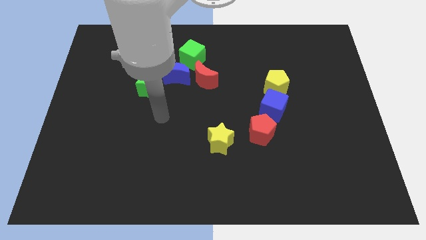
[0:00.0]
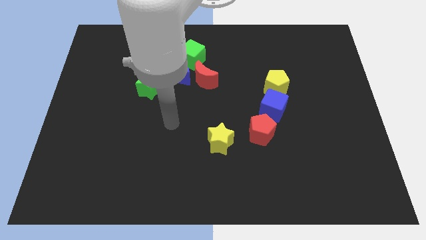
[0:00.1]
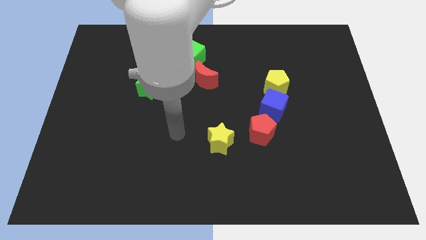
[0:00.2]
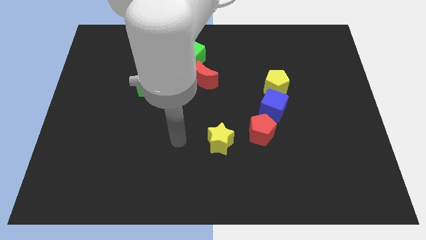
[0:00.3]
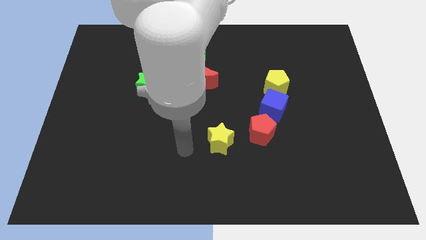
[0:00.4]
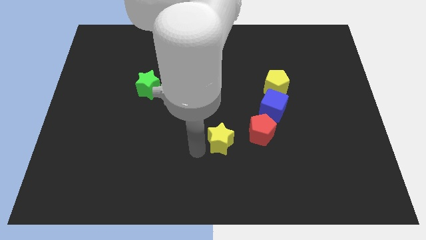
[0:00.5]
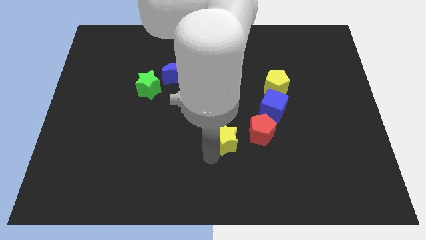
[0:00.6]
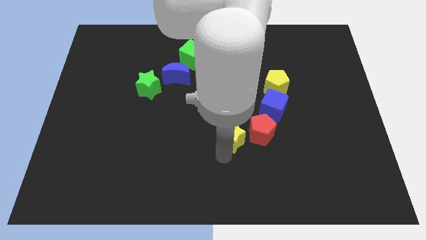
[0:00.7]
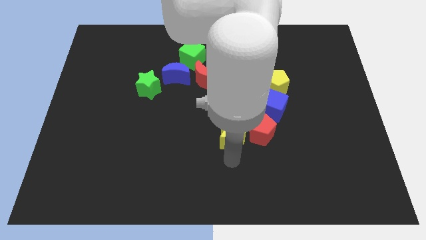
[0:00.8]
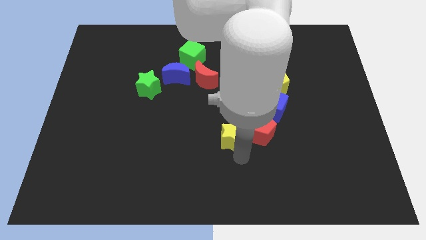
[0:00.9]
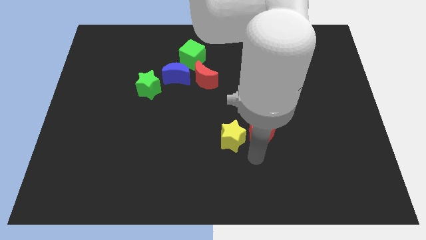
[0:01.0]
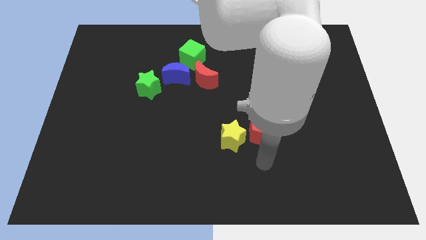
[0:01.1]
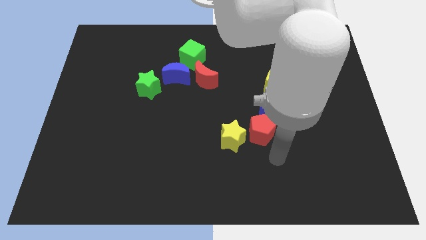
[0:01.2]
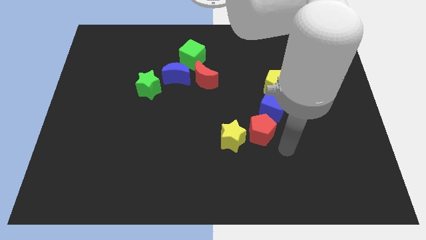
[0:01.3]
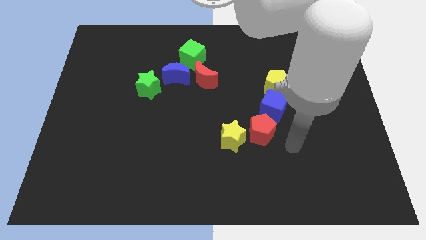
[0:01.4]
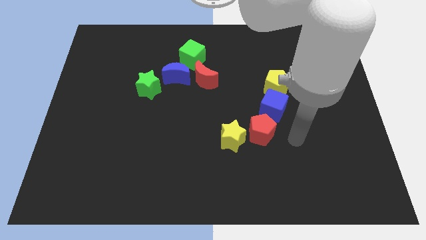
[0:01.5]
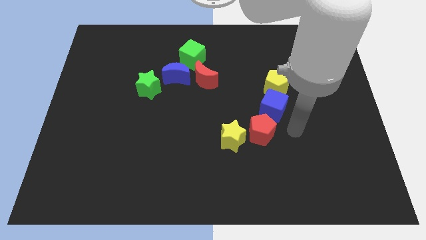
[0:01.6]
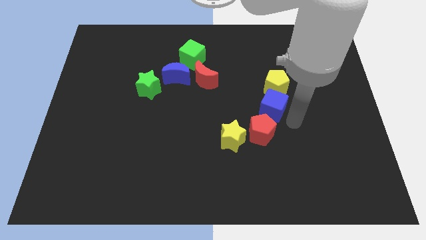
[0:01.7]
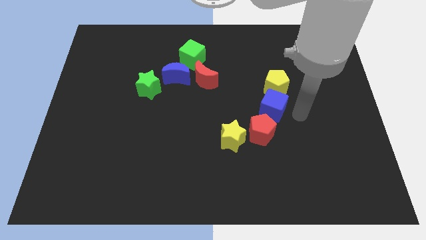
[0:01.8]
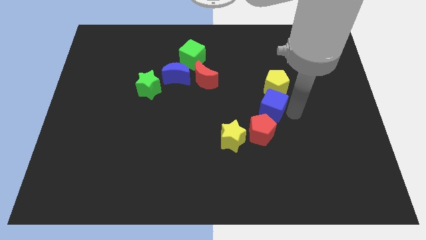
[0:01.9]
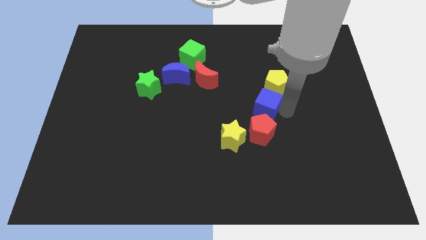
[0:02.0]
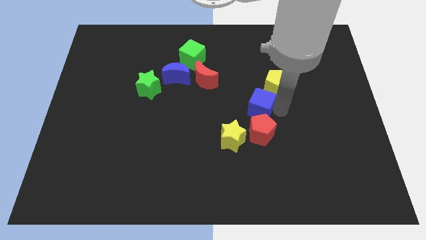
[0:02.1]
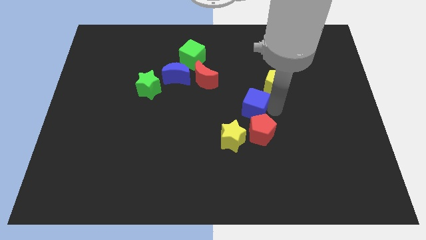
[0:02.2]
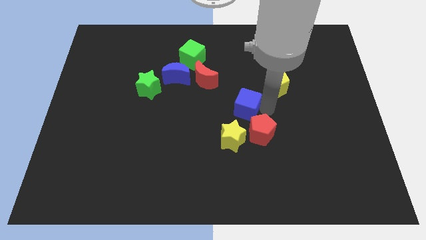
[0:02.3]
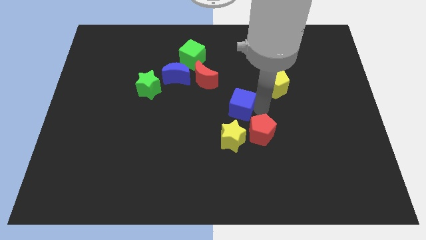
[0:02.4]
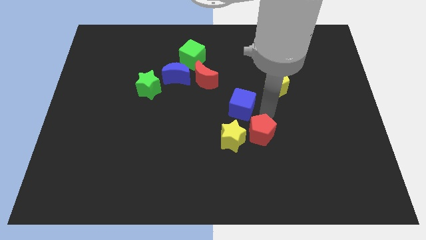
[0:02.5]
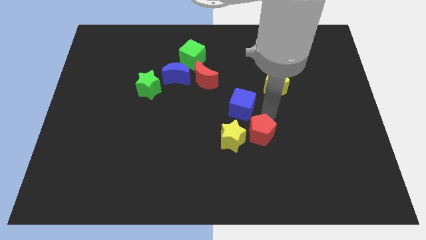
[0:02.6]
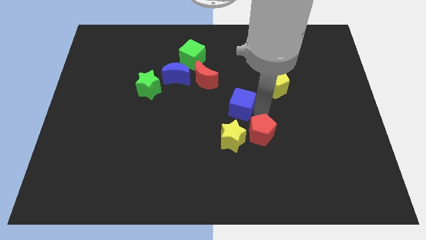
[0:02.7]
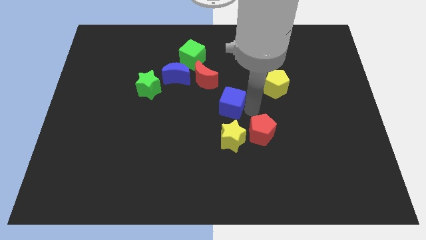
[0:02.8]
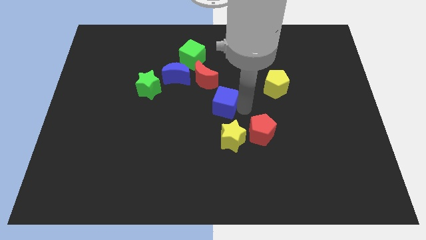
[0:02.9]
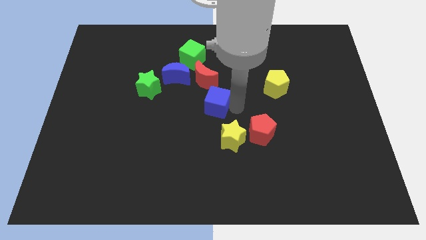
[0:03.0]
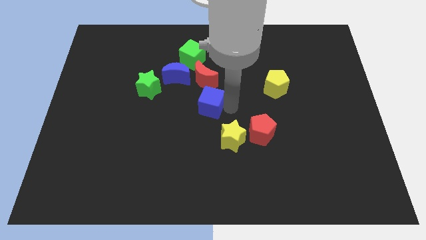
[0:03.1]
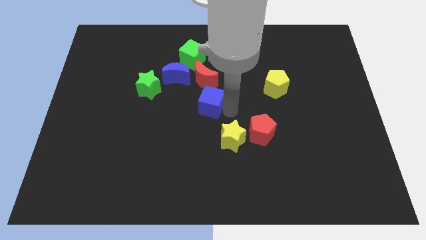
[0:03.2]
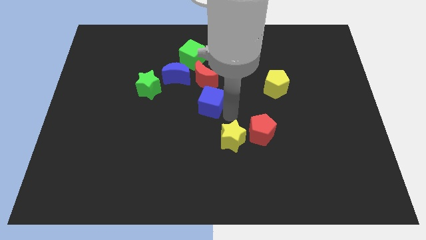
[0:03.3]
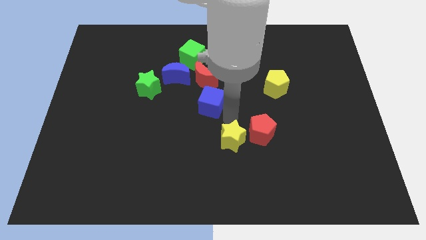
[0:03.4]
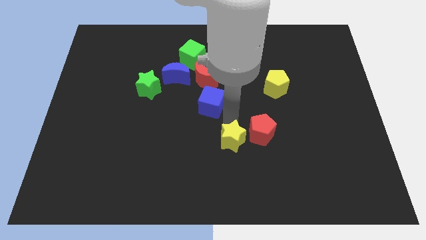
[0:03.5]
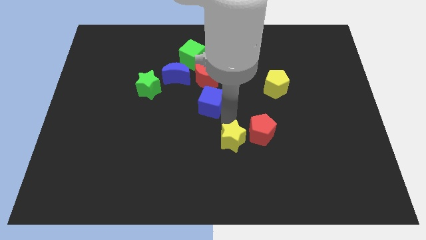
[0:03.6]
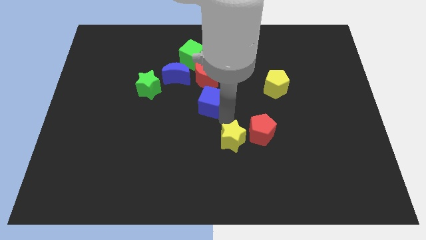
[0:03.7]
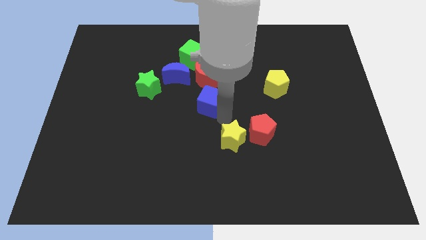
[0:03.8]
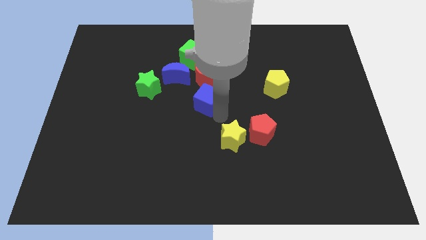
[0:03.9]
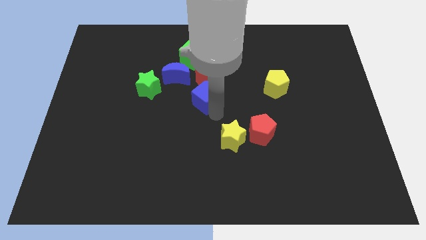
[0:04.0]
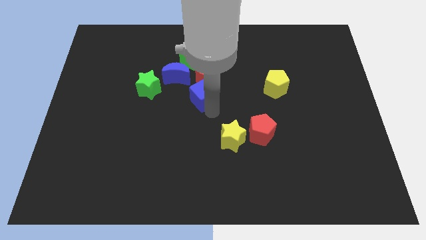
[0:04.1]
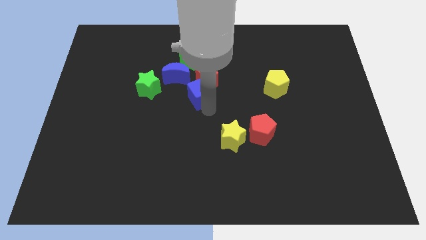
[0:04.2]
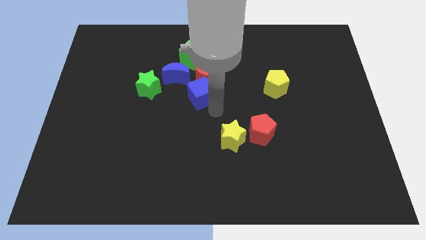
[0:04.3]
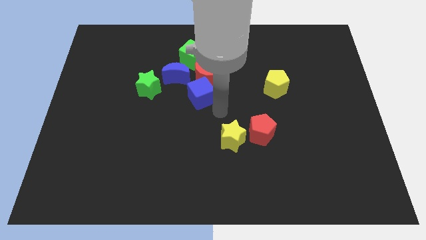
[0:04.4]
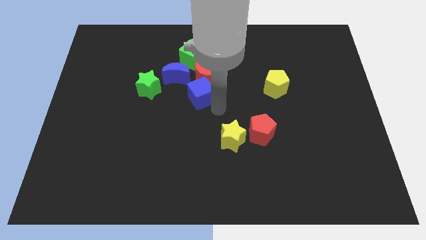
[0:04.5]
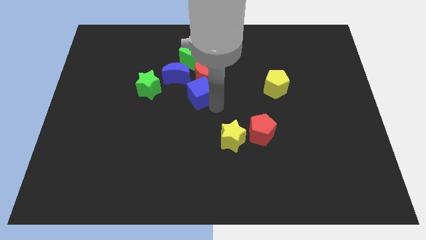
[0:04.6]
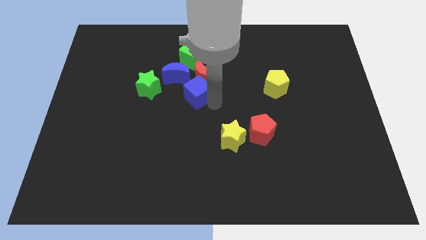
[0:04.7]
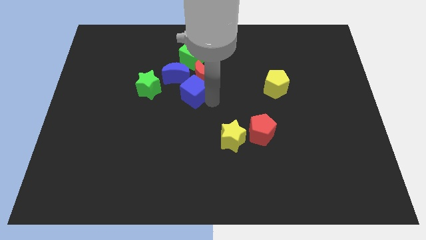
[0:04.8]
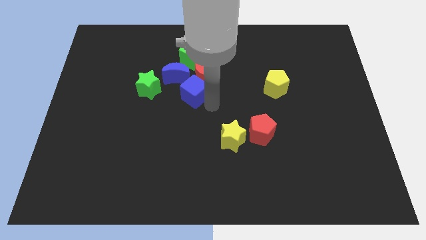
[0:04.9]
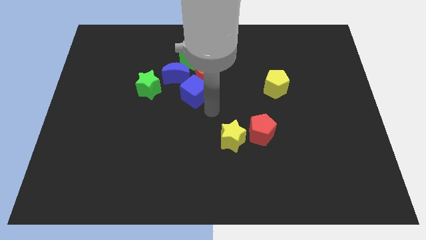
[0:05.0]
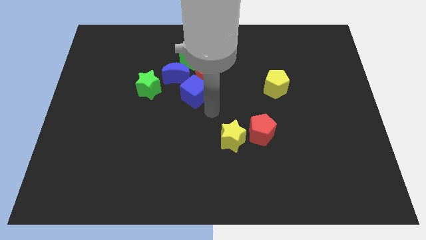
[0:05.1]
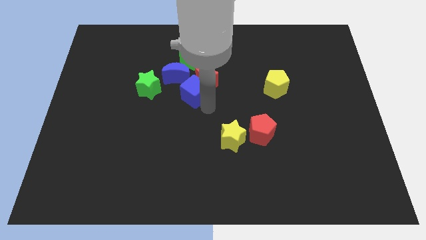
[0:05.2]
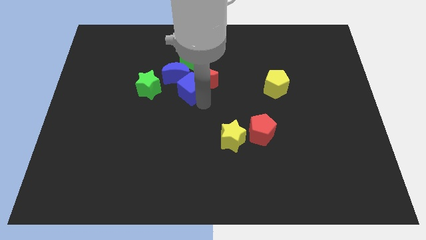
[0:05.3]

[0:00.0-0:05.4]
slide the blue cube close to the blue moon

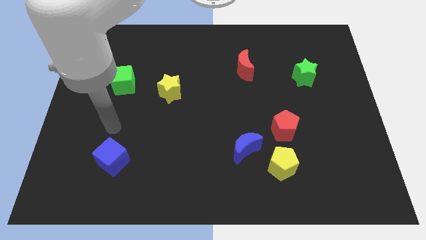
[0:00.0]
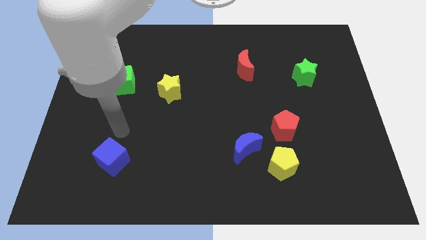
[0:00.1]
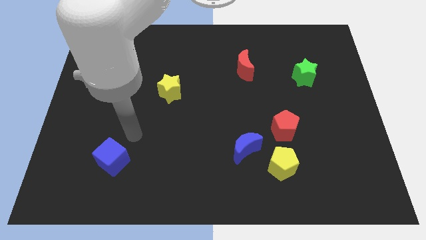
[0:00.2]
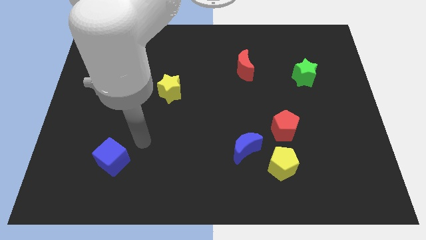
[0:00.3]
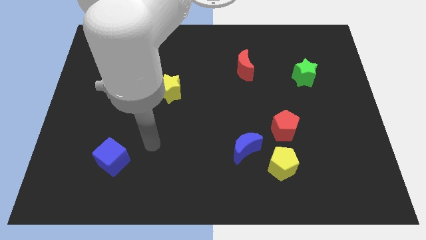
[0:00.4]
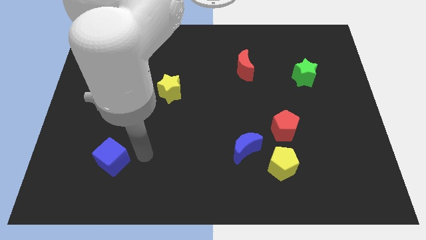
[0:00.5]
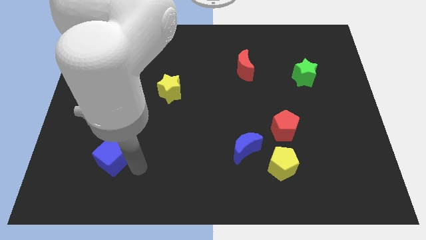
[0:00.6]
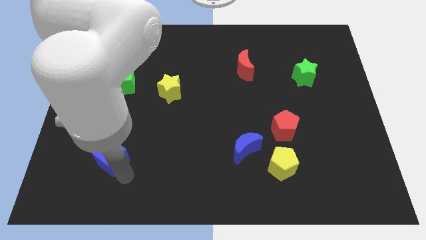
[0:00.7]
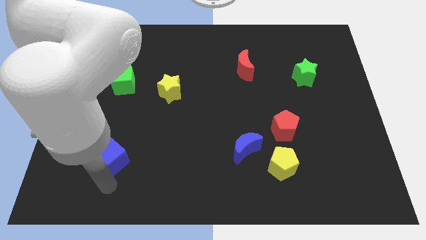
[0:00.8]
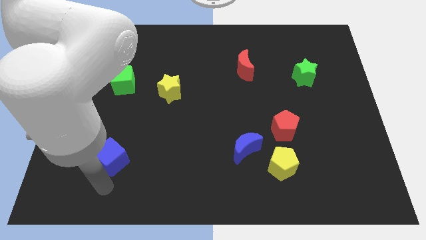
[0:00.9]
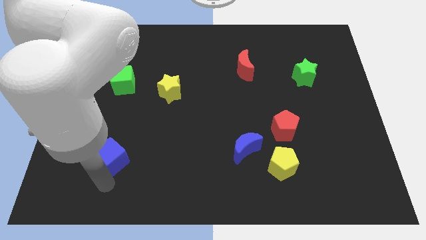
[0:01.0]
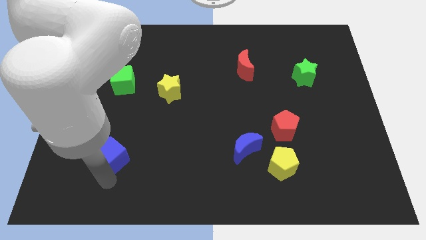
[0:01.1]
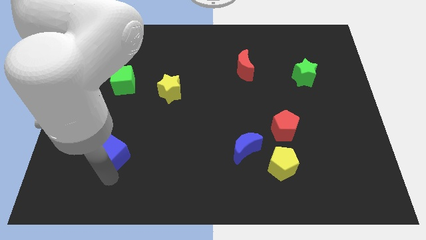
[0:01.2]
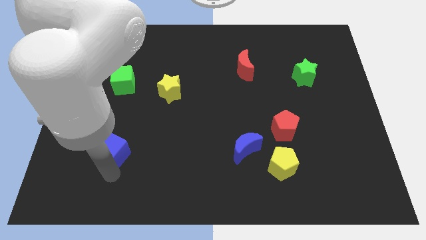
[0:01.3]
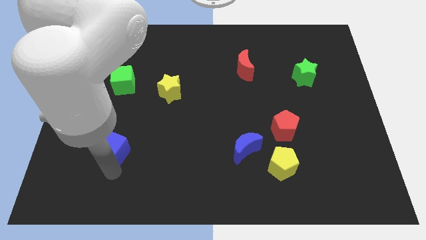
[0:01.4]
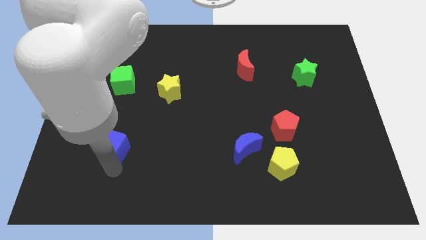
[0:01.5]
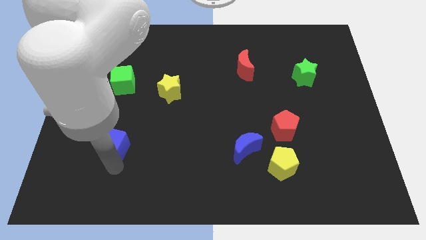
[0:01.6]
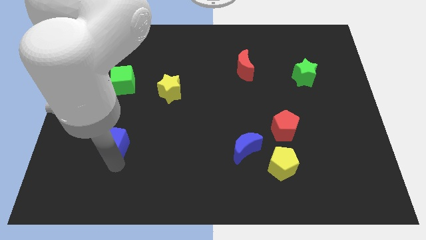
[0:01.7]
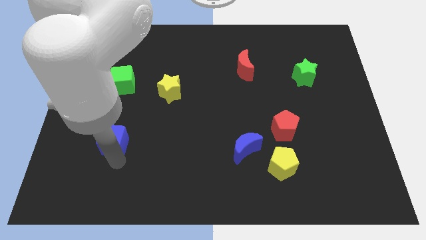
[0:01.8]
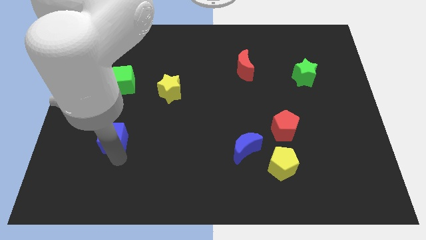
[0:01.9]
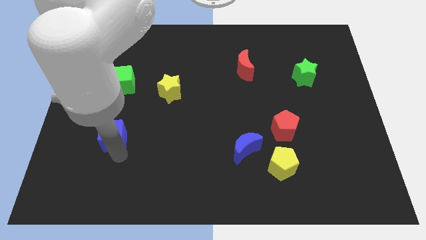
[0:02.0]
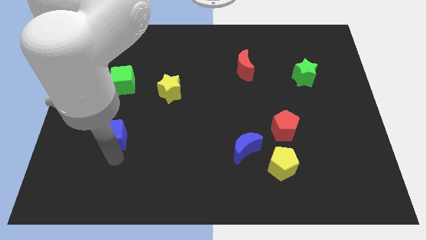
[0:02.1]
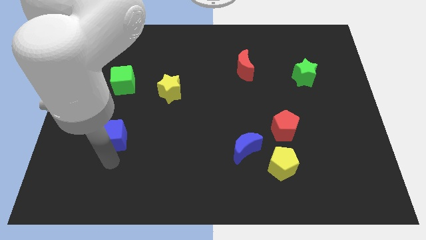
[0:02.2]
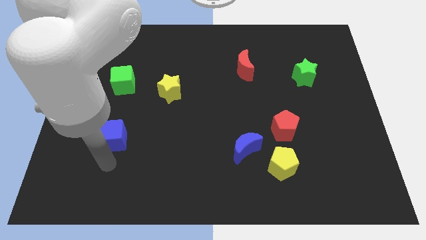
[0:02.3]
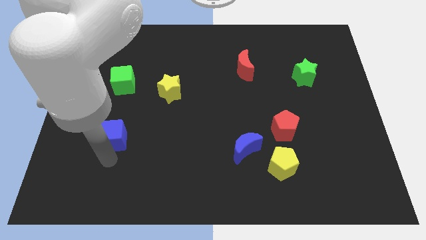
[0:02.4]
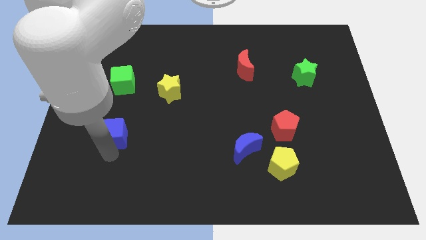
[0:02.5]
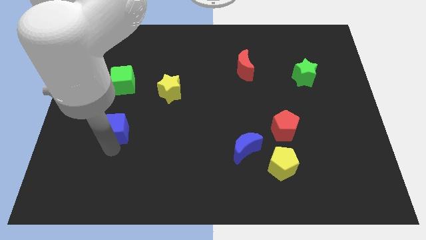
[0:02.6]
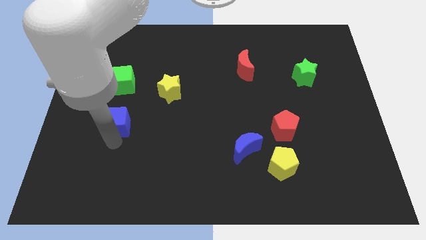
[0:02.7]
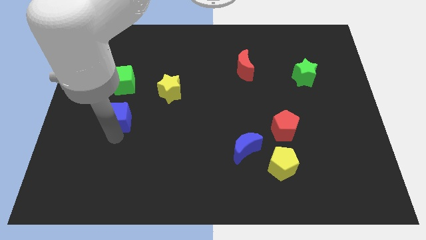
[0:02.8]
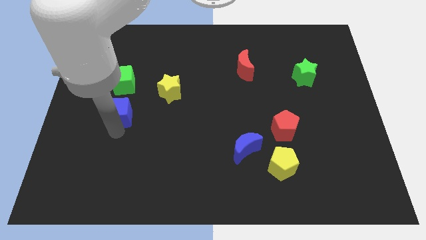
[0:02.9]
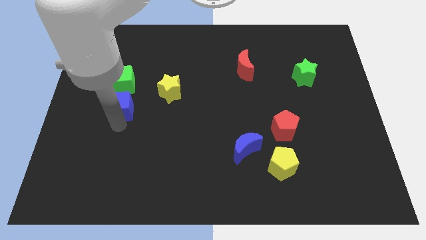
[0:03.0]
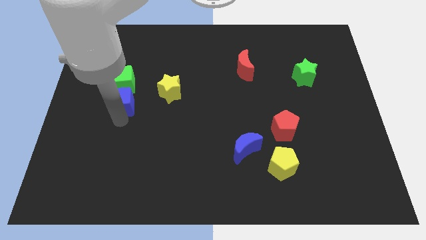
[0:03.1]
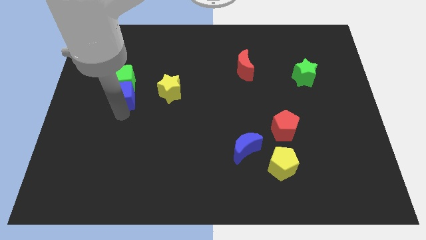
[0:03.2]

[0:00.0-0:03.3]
put the blue cube next to the green cube
